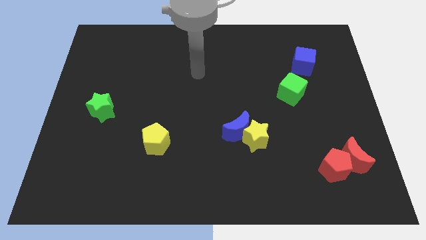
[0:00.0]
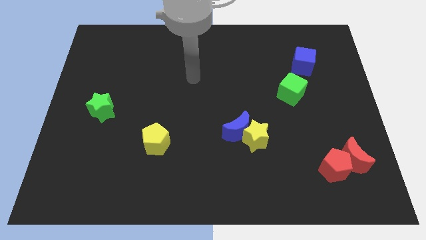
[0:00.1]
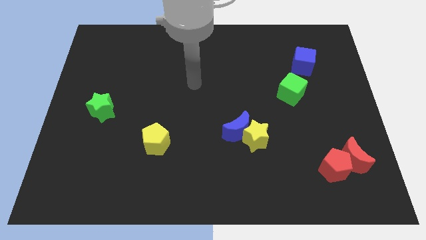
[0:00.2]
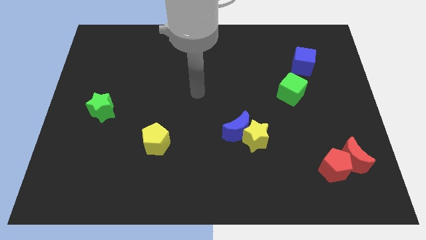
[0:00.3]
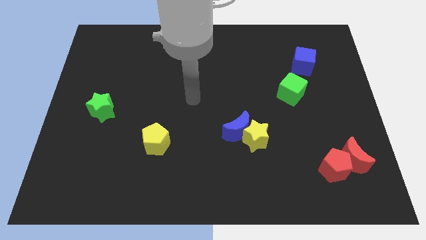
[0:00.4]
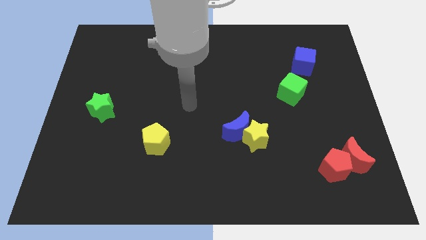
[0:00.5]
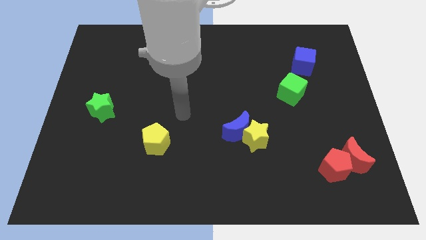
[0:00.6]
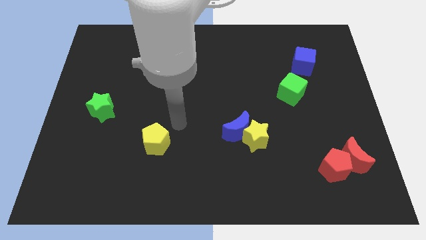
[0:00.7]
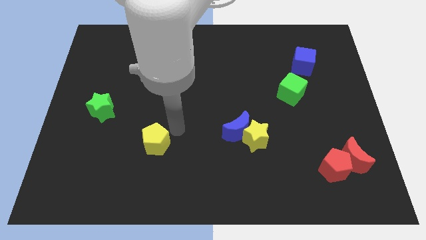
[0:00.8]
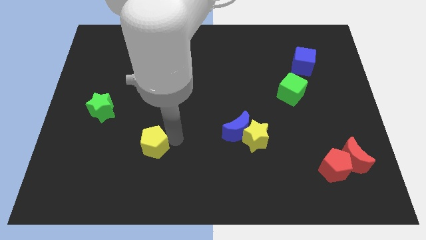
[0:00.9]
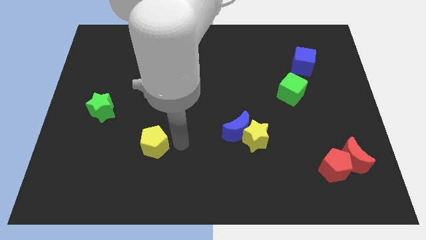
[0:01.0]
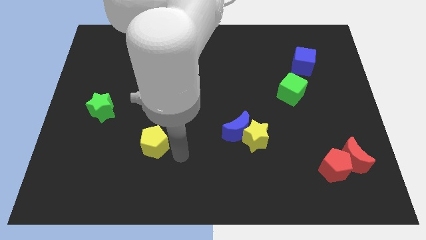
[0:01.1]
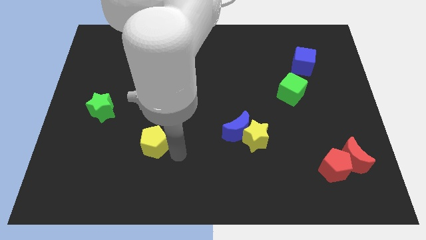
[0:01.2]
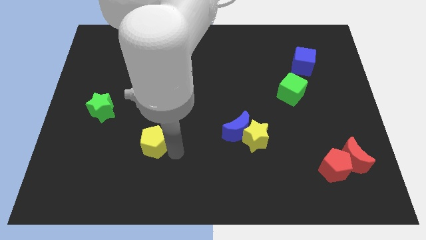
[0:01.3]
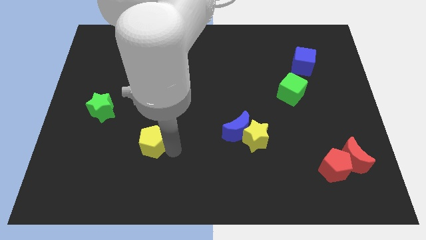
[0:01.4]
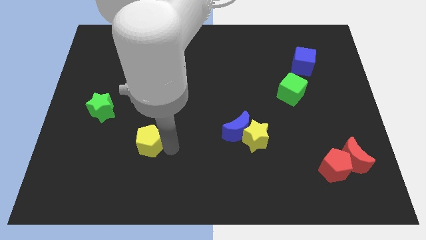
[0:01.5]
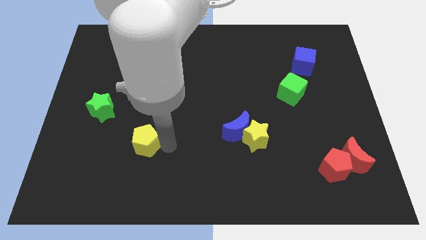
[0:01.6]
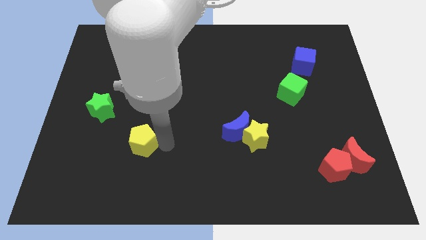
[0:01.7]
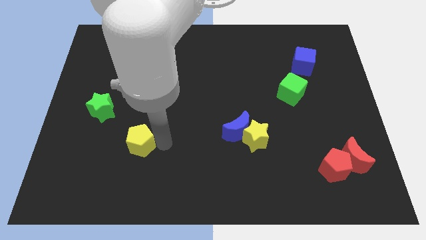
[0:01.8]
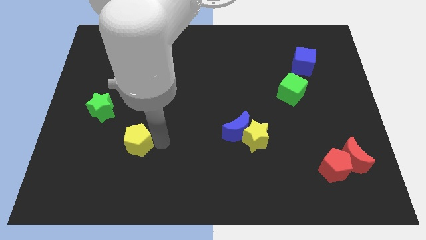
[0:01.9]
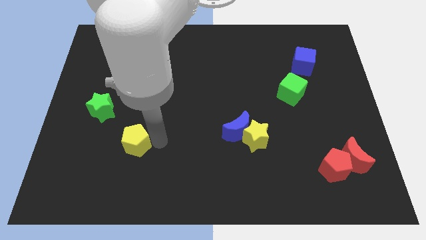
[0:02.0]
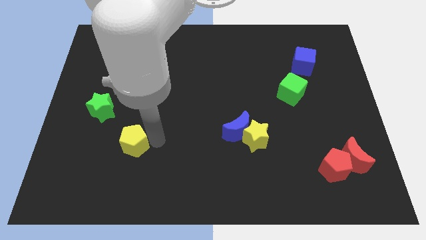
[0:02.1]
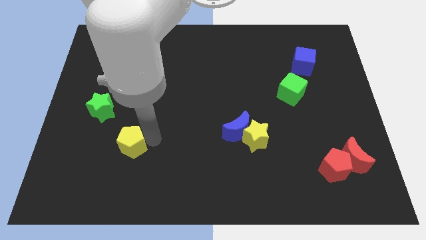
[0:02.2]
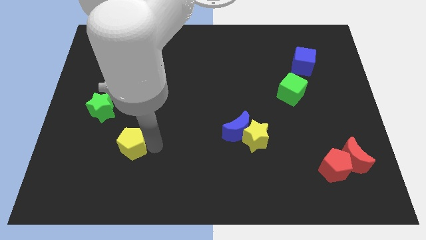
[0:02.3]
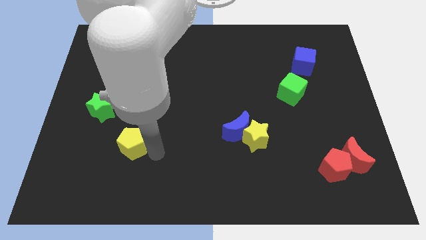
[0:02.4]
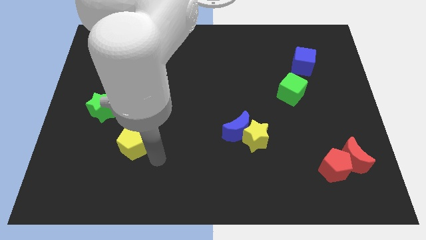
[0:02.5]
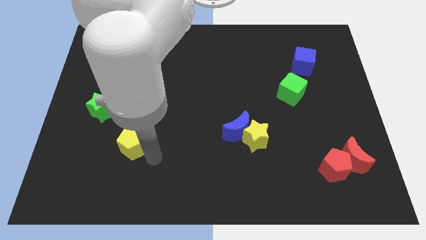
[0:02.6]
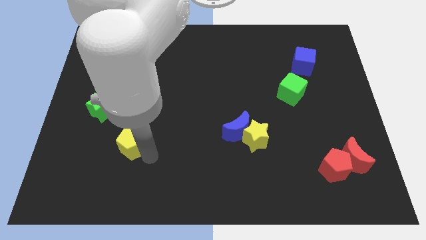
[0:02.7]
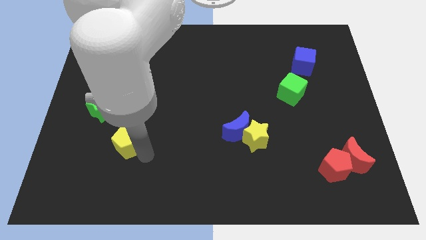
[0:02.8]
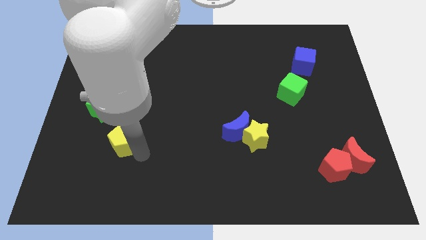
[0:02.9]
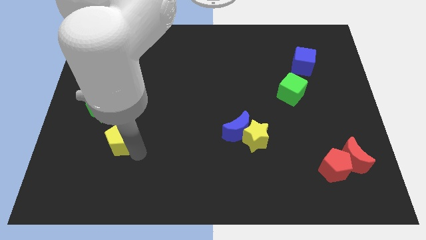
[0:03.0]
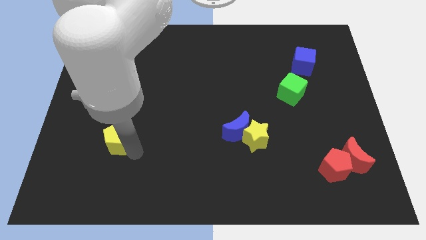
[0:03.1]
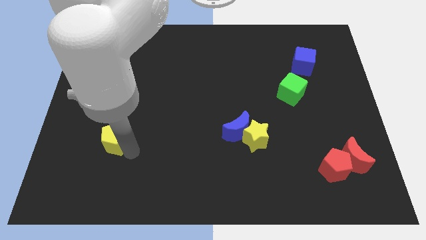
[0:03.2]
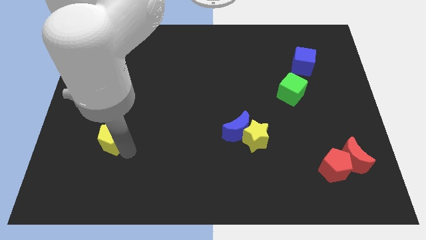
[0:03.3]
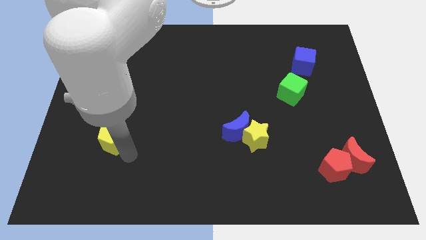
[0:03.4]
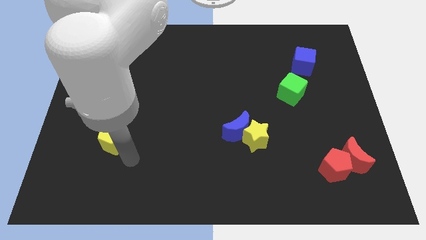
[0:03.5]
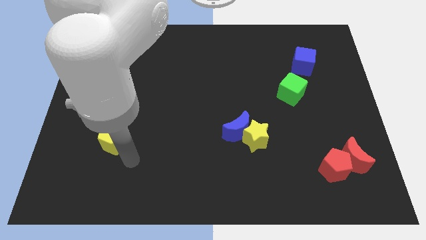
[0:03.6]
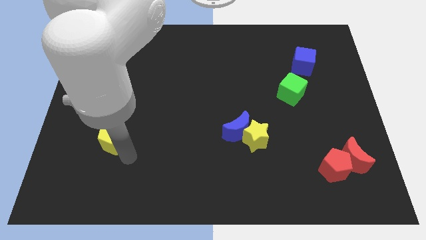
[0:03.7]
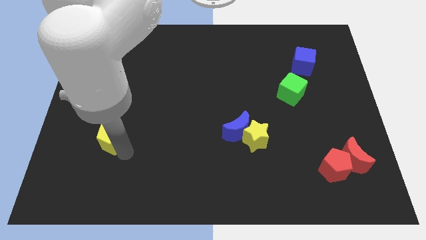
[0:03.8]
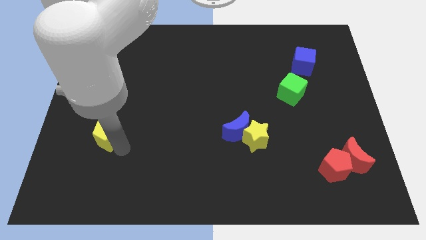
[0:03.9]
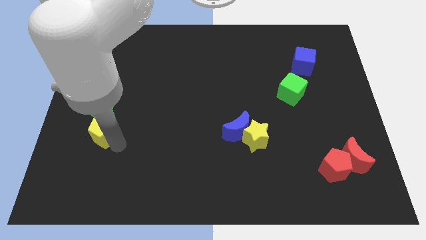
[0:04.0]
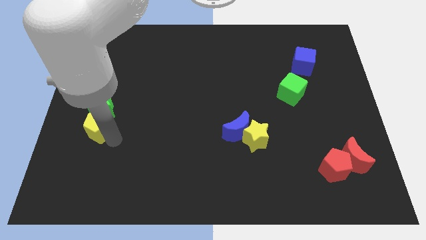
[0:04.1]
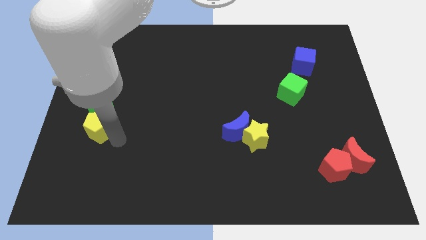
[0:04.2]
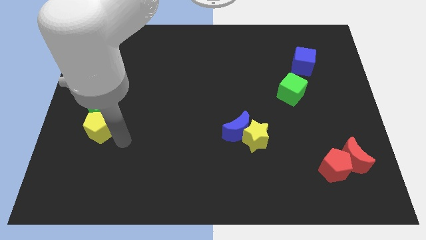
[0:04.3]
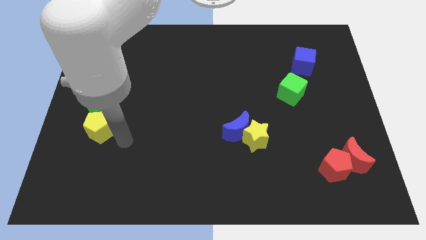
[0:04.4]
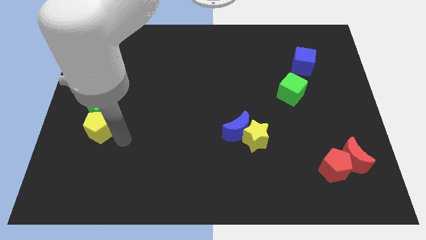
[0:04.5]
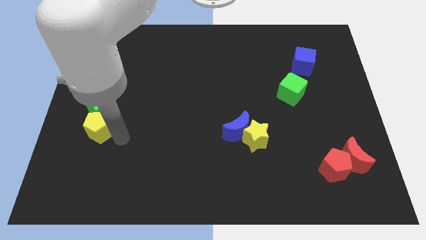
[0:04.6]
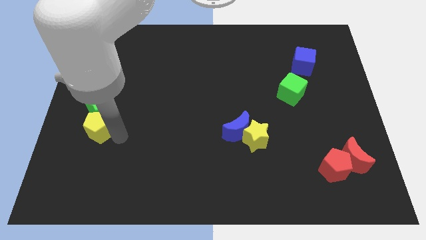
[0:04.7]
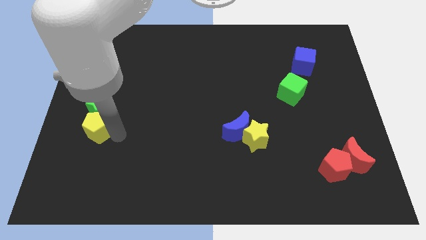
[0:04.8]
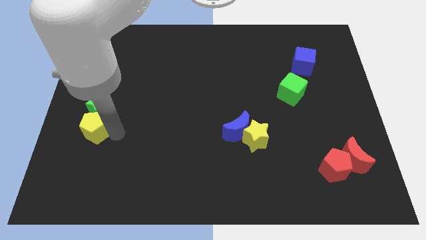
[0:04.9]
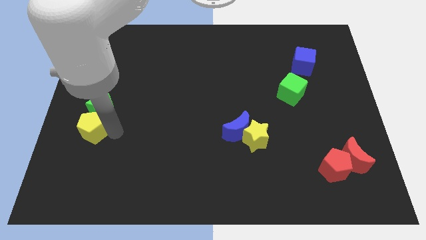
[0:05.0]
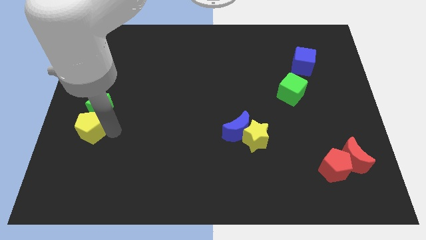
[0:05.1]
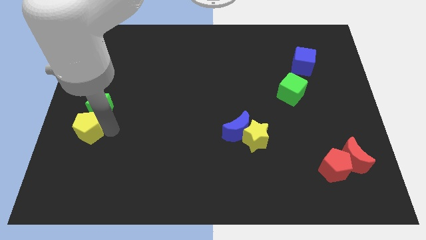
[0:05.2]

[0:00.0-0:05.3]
put the yellow pentagon to the left side
